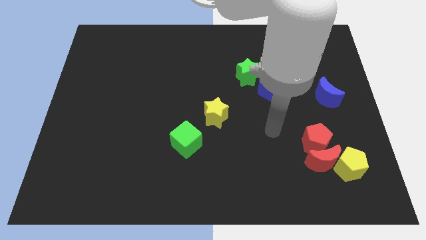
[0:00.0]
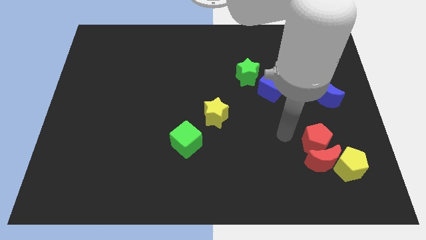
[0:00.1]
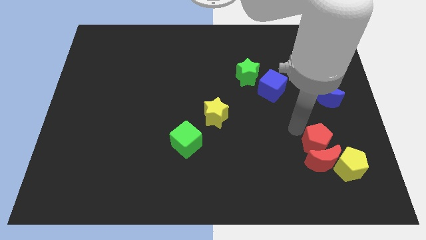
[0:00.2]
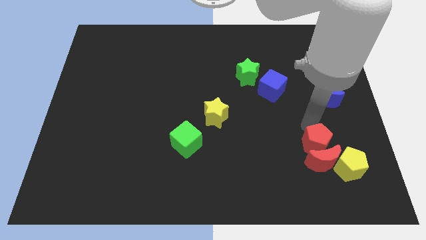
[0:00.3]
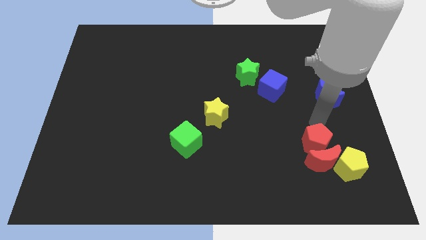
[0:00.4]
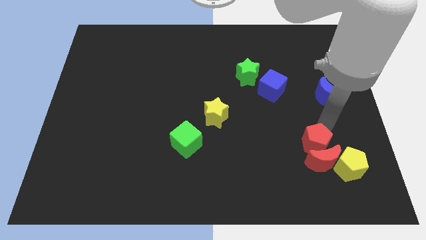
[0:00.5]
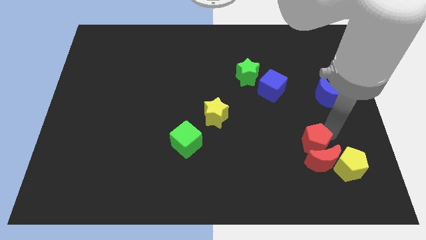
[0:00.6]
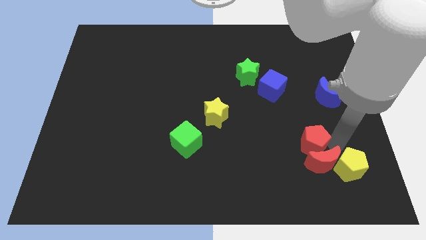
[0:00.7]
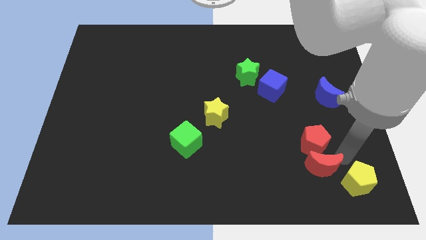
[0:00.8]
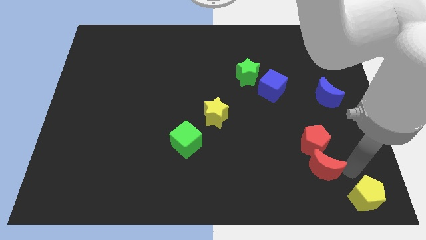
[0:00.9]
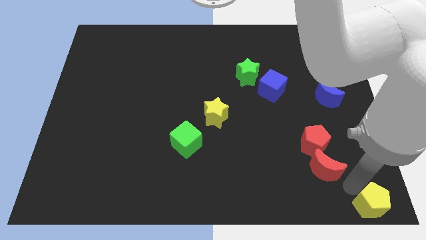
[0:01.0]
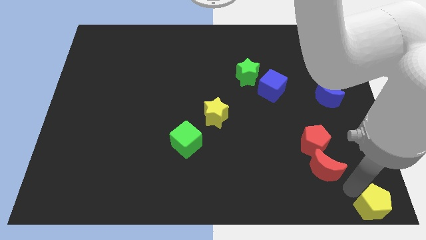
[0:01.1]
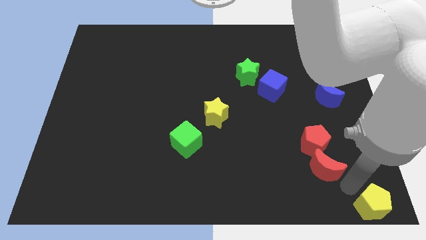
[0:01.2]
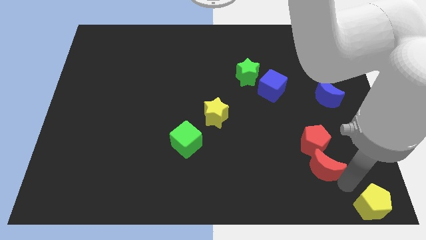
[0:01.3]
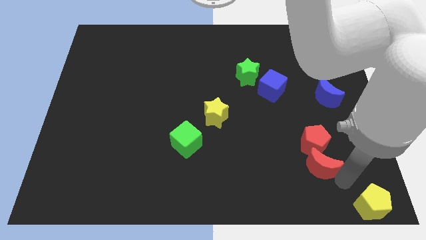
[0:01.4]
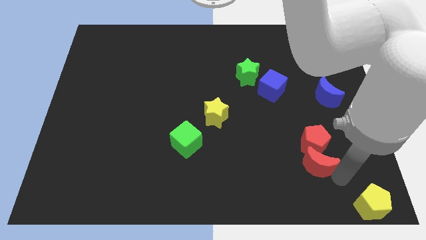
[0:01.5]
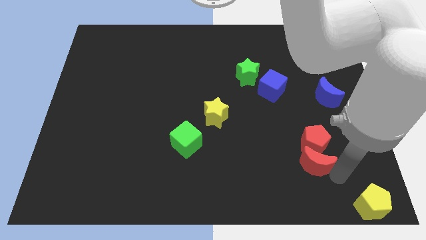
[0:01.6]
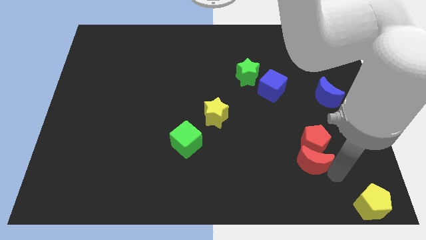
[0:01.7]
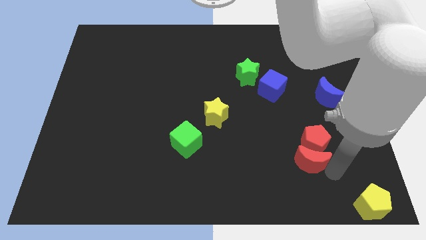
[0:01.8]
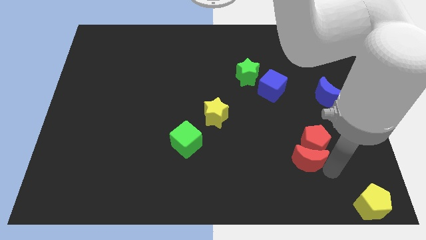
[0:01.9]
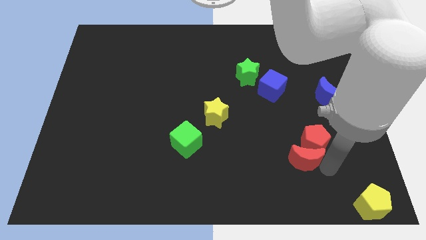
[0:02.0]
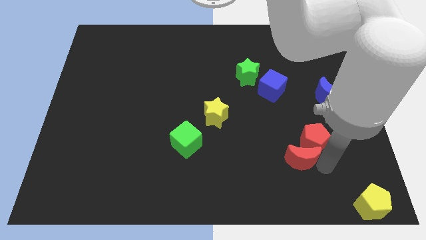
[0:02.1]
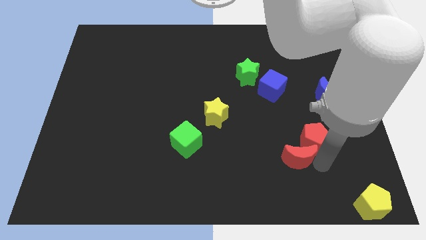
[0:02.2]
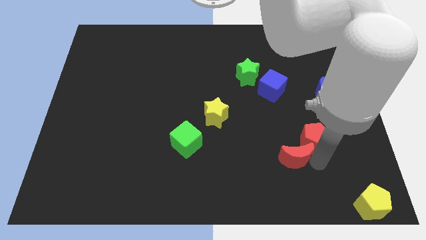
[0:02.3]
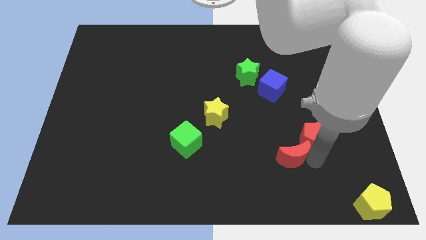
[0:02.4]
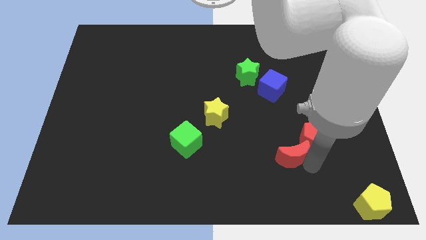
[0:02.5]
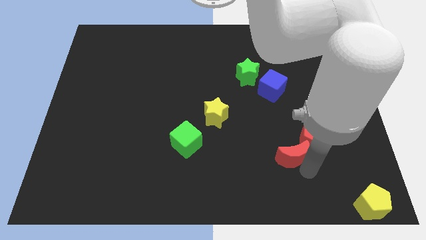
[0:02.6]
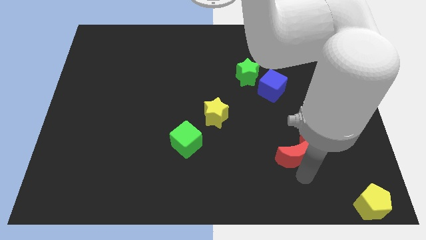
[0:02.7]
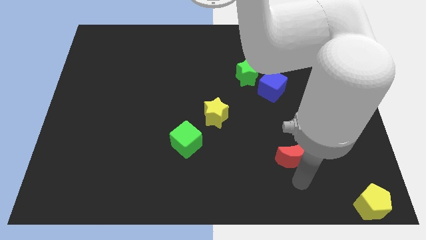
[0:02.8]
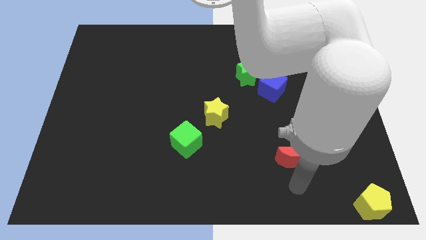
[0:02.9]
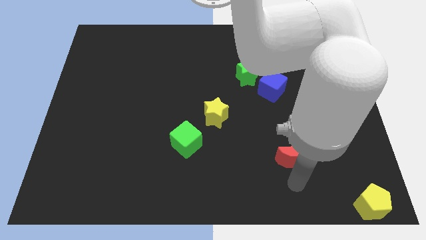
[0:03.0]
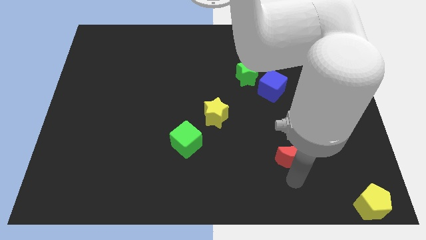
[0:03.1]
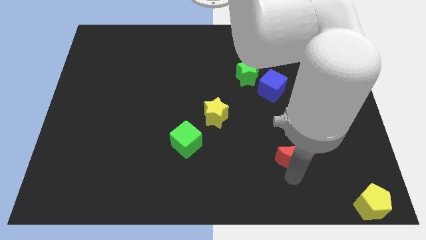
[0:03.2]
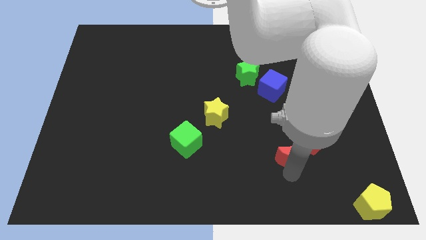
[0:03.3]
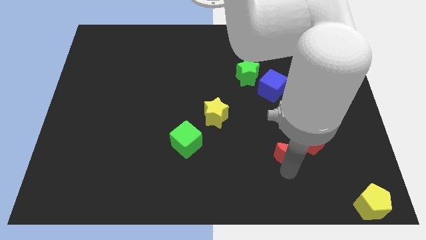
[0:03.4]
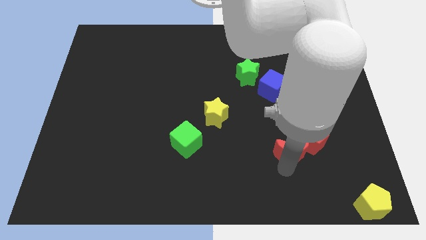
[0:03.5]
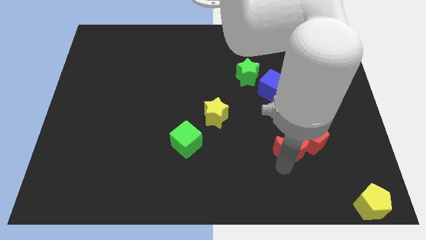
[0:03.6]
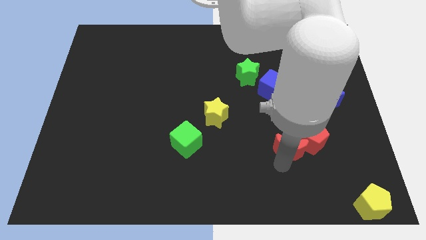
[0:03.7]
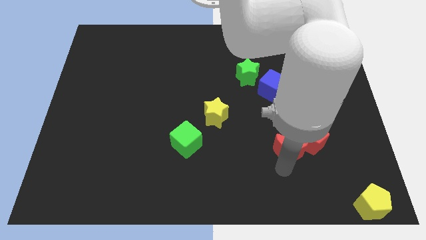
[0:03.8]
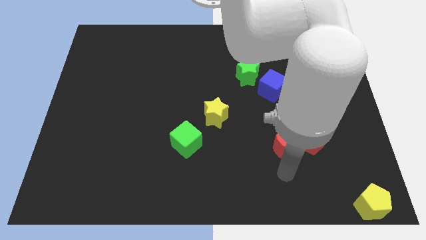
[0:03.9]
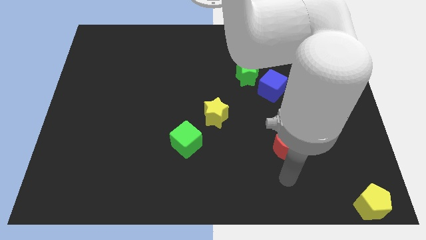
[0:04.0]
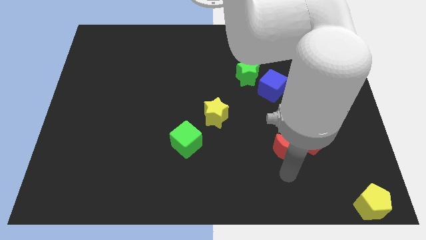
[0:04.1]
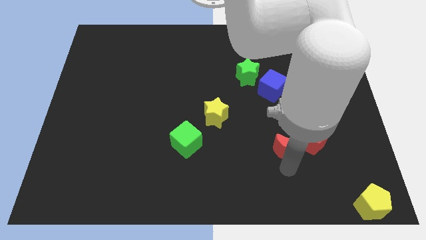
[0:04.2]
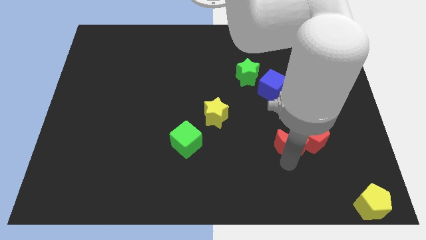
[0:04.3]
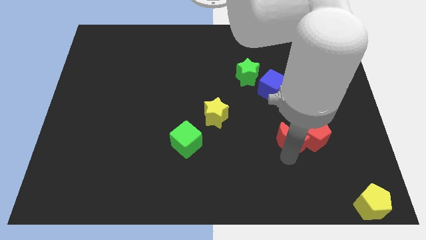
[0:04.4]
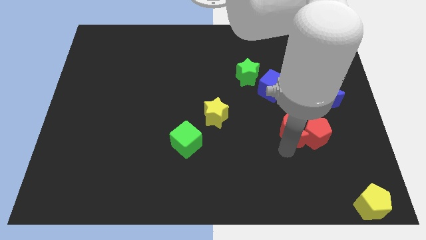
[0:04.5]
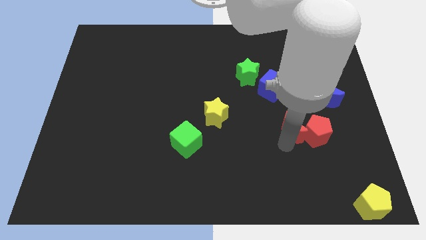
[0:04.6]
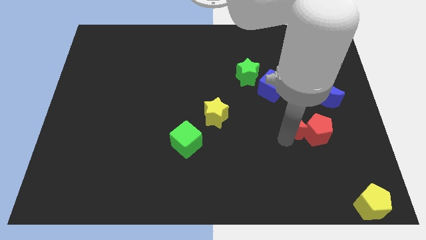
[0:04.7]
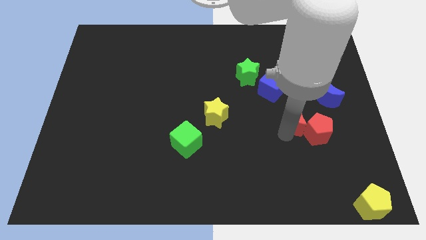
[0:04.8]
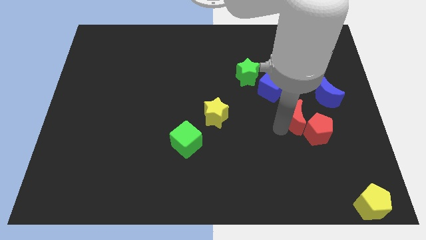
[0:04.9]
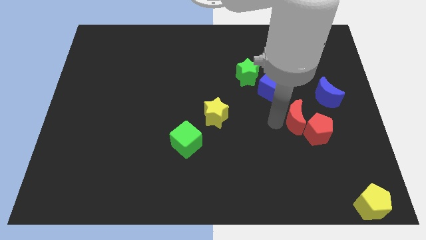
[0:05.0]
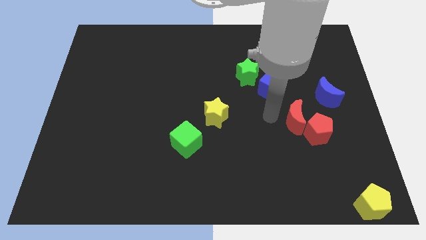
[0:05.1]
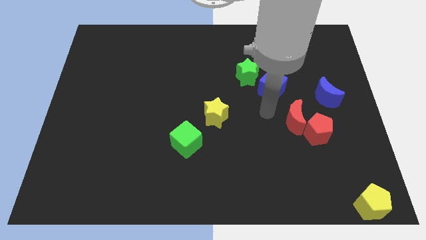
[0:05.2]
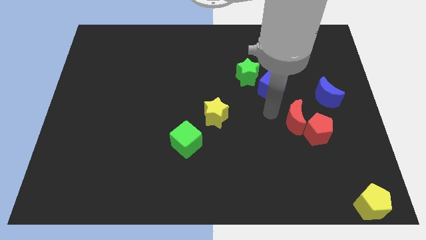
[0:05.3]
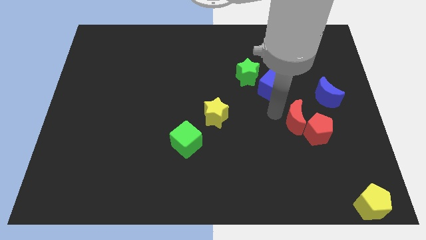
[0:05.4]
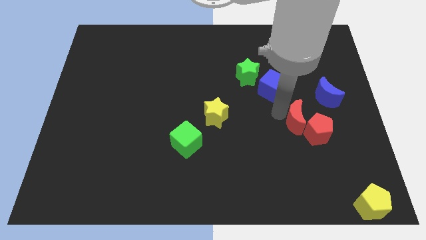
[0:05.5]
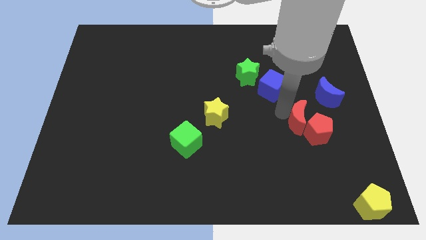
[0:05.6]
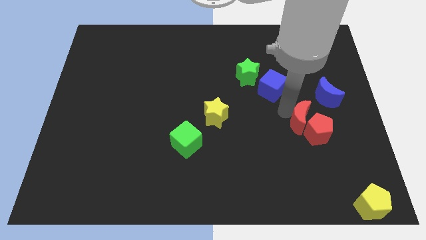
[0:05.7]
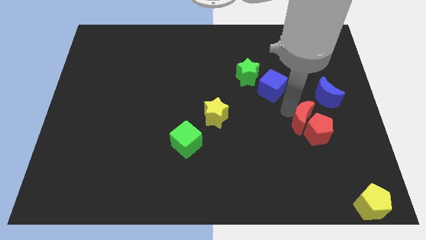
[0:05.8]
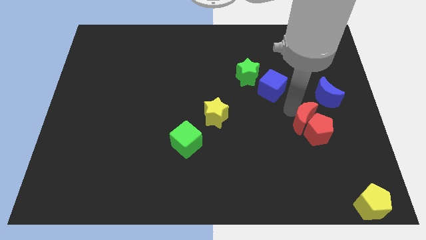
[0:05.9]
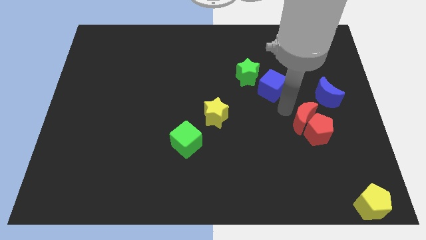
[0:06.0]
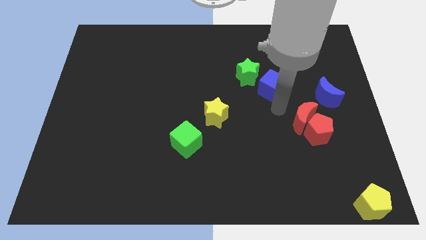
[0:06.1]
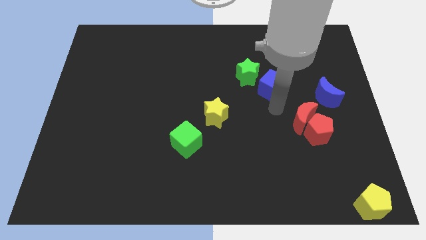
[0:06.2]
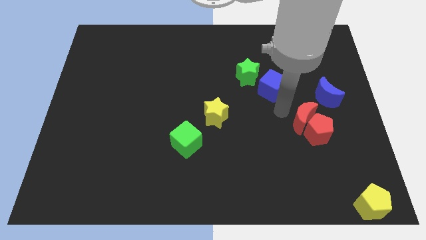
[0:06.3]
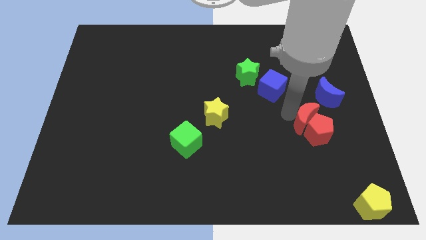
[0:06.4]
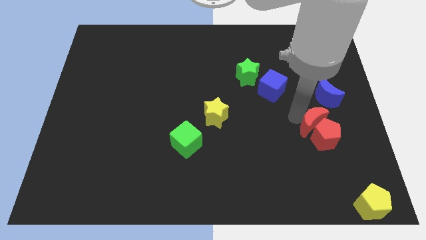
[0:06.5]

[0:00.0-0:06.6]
put the red moon to the bottom side of the blue moon

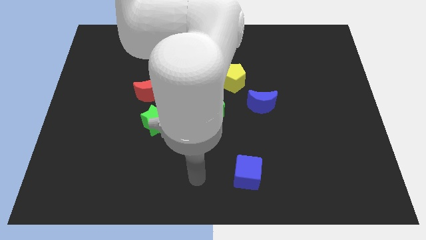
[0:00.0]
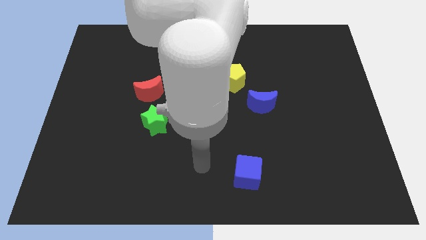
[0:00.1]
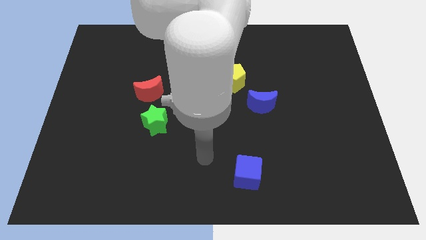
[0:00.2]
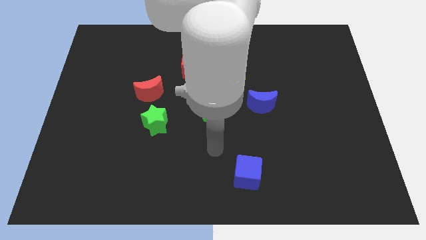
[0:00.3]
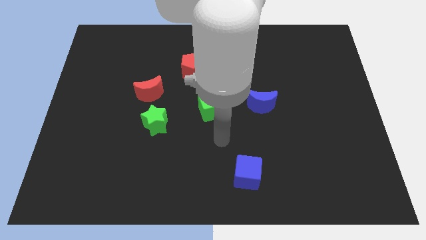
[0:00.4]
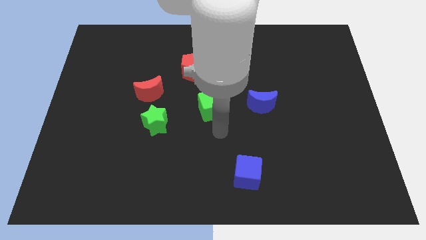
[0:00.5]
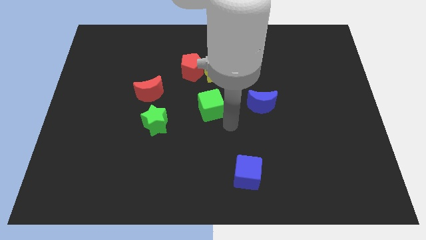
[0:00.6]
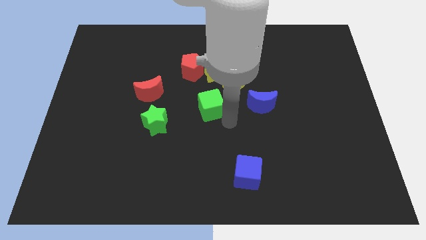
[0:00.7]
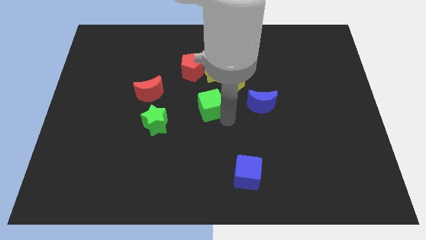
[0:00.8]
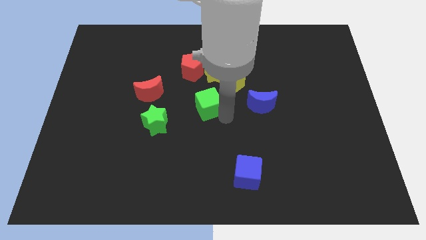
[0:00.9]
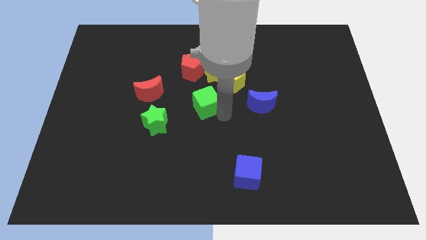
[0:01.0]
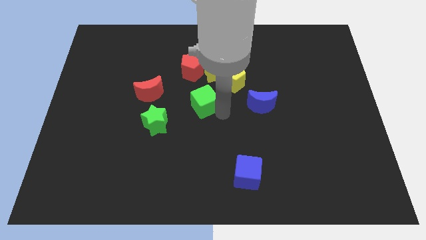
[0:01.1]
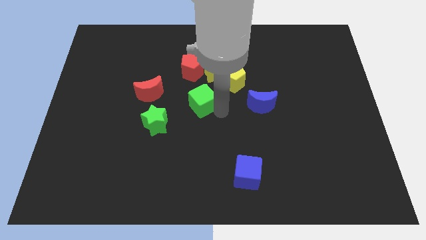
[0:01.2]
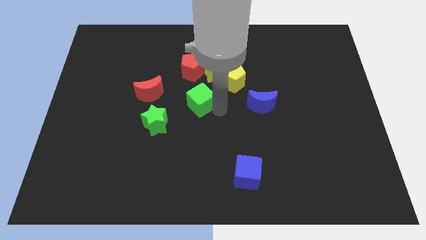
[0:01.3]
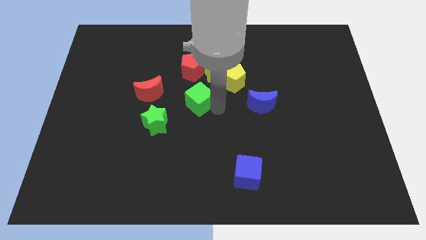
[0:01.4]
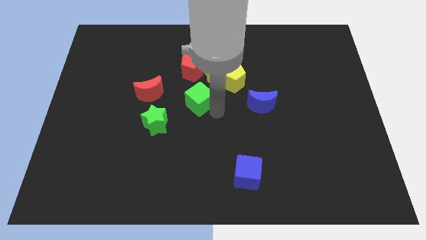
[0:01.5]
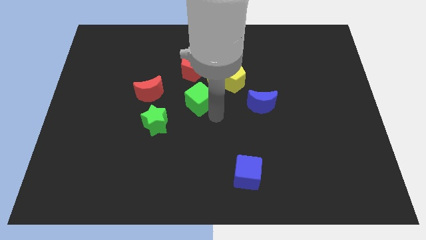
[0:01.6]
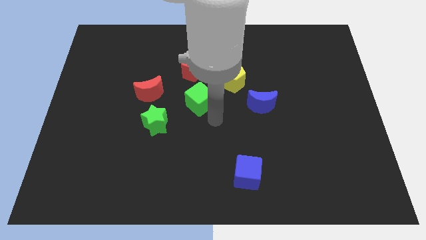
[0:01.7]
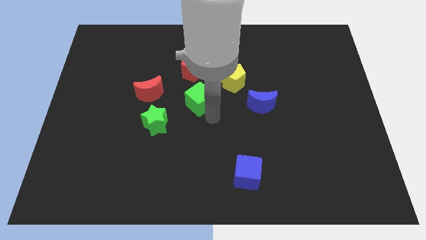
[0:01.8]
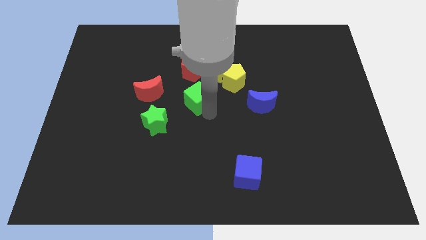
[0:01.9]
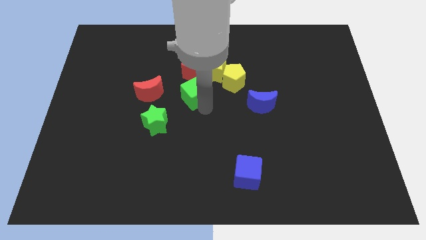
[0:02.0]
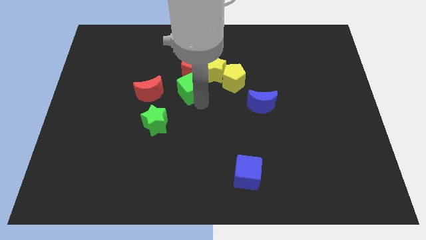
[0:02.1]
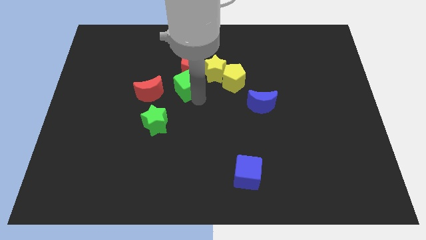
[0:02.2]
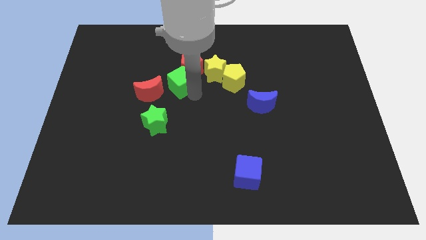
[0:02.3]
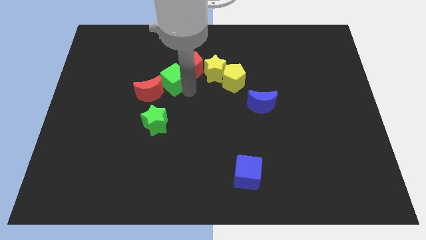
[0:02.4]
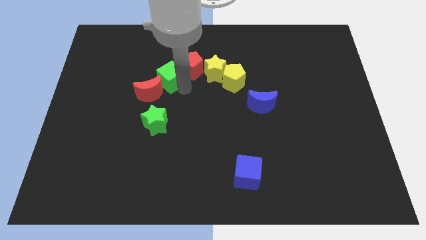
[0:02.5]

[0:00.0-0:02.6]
move the green cube above the red moon
